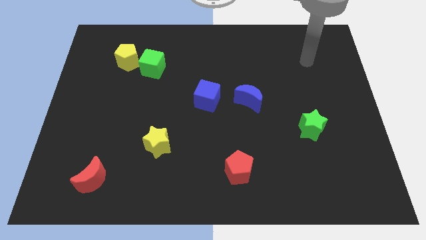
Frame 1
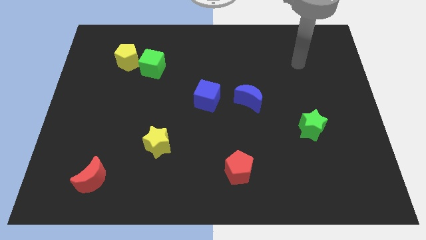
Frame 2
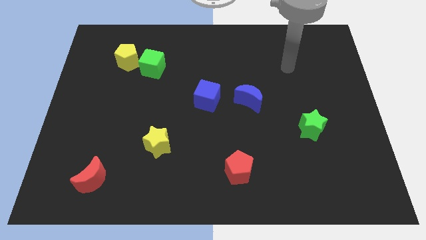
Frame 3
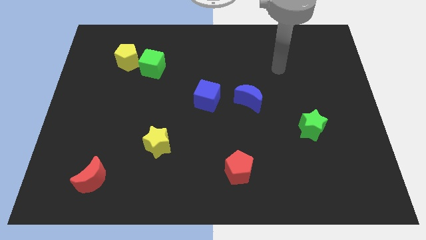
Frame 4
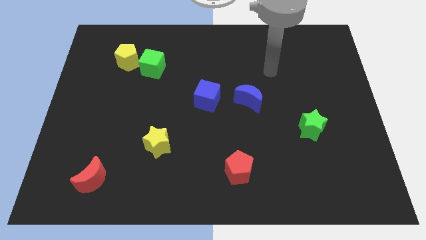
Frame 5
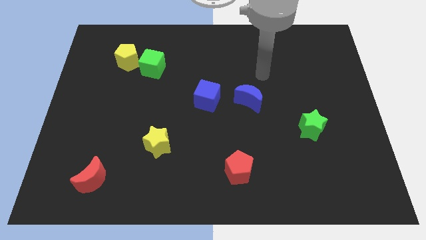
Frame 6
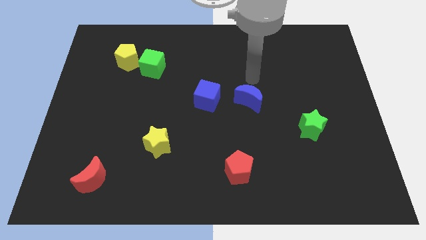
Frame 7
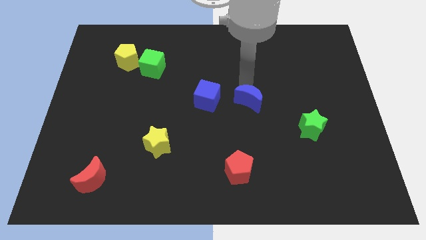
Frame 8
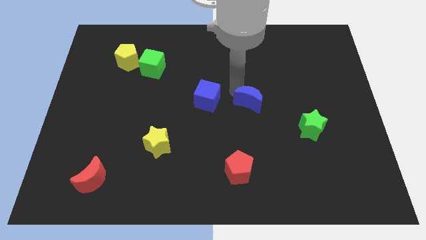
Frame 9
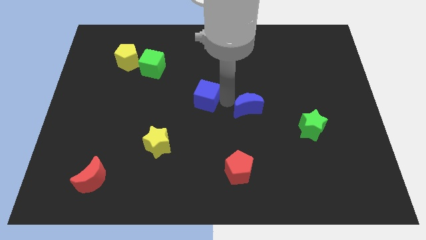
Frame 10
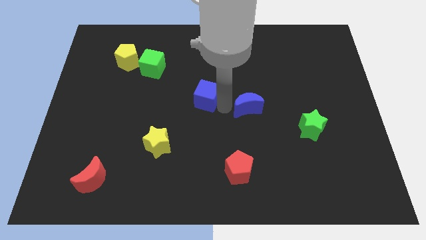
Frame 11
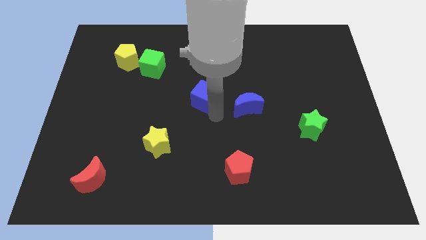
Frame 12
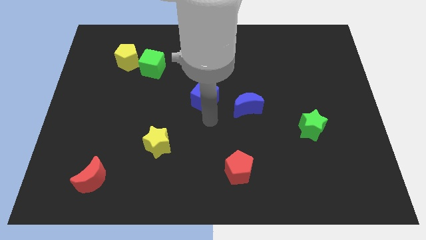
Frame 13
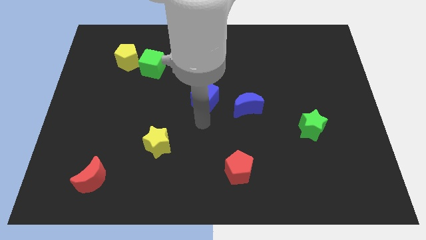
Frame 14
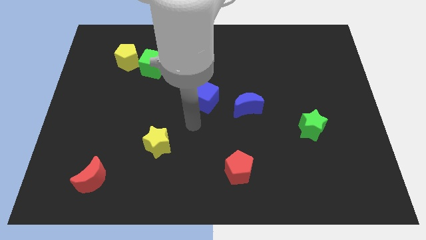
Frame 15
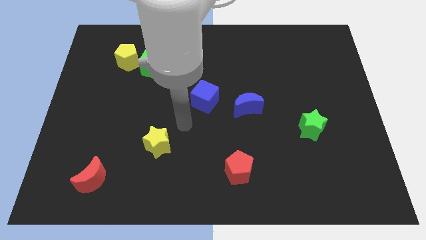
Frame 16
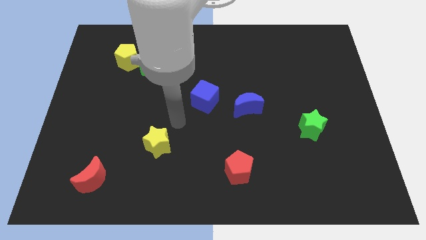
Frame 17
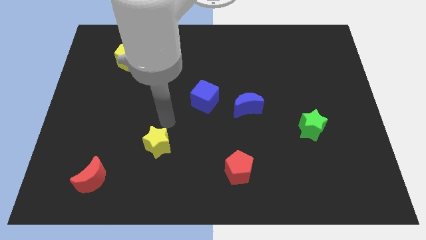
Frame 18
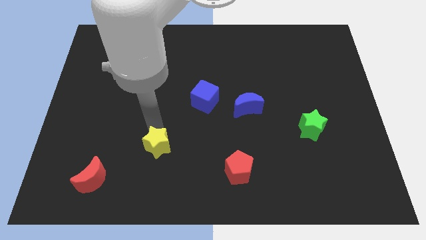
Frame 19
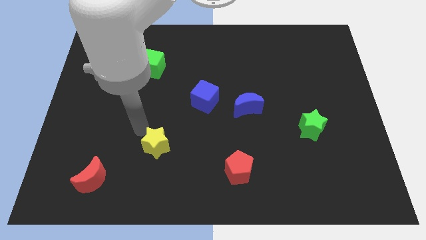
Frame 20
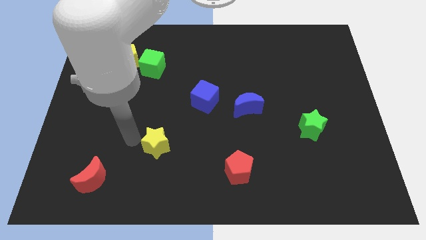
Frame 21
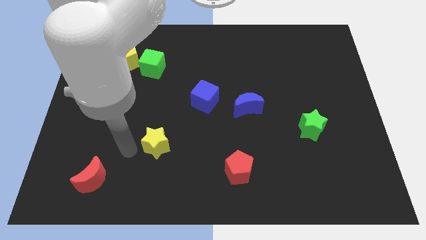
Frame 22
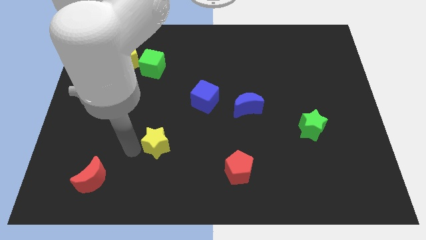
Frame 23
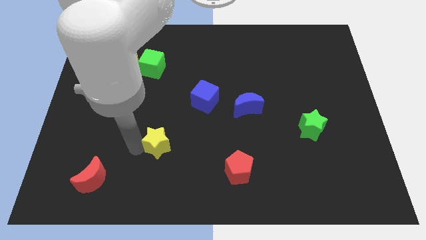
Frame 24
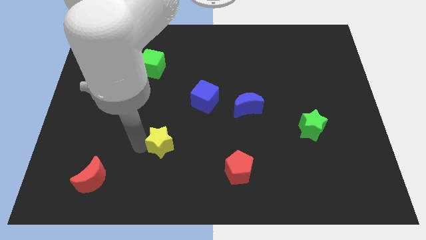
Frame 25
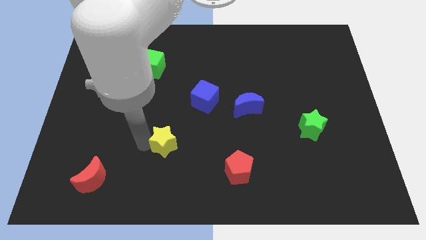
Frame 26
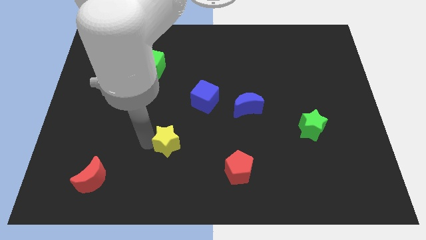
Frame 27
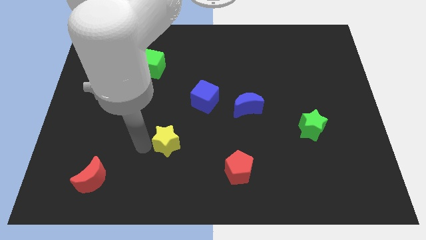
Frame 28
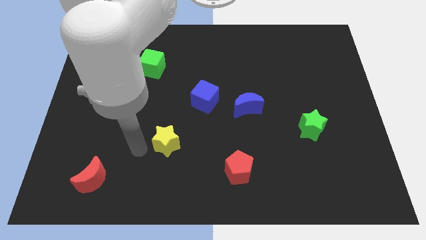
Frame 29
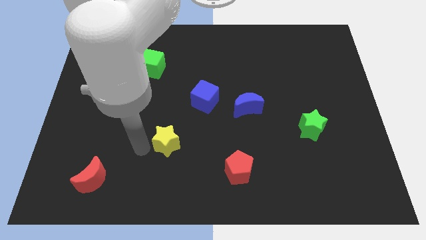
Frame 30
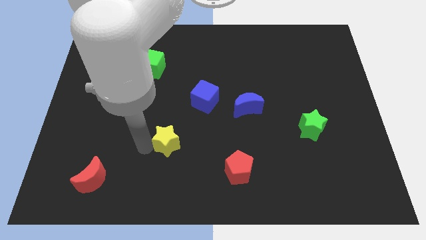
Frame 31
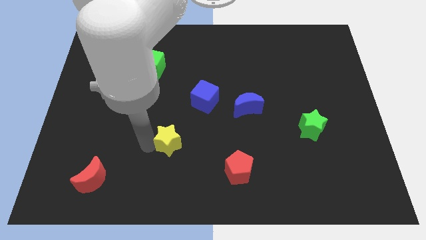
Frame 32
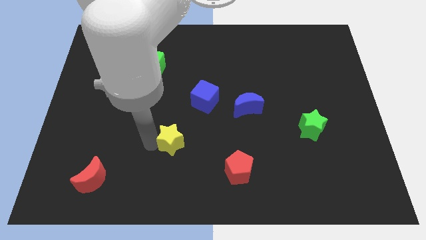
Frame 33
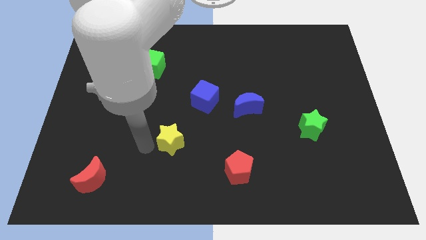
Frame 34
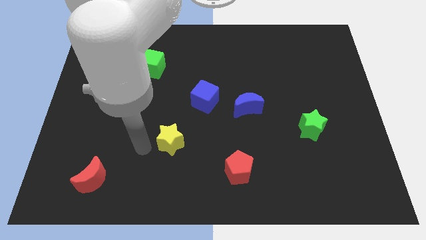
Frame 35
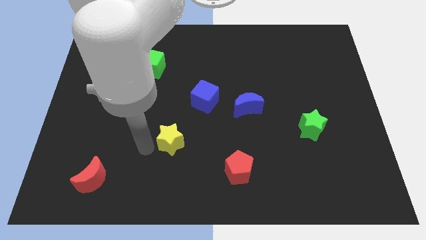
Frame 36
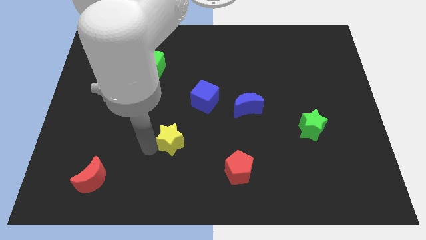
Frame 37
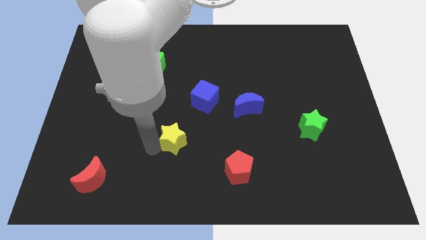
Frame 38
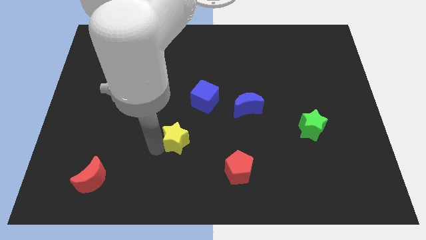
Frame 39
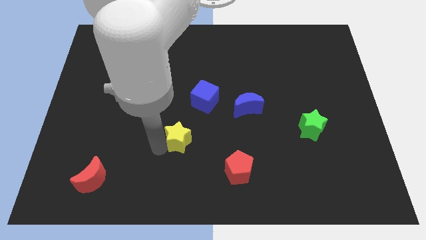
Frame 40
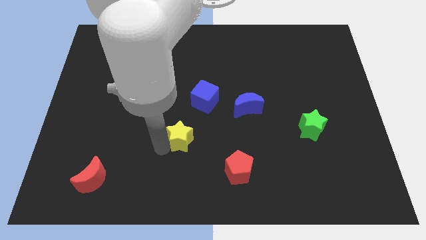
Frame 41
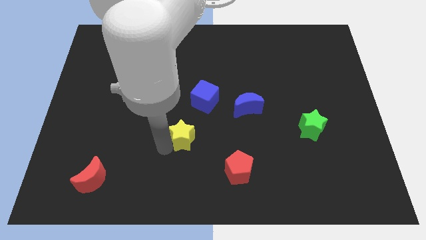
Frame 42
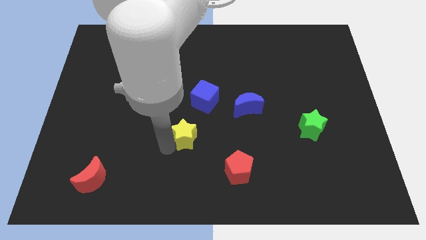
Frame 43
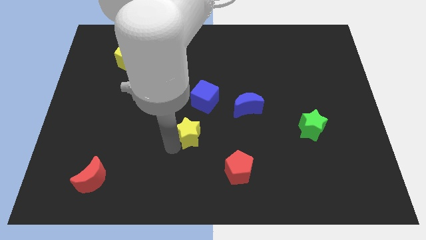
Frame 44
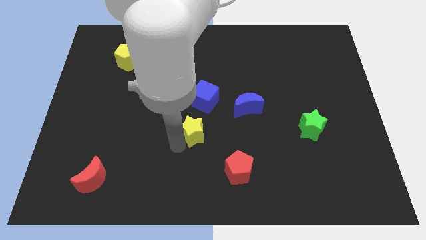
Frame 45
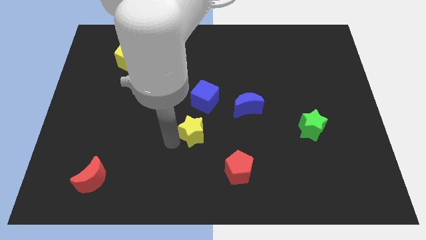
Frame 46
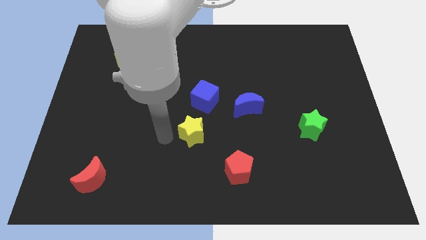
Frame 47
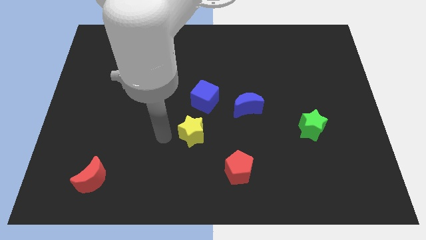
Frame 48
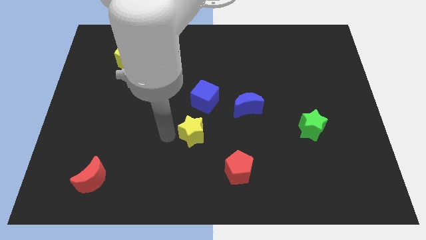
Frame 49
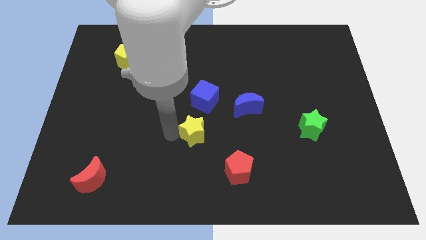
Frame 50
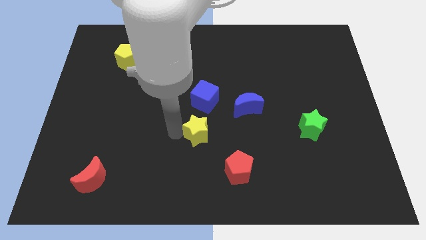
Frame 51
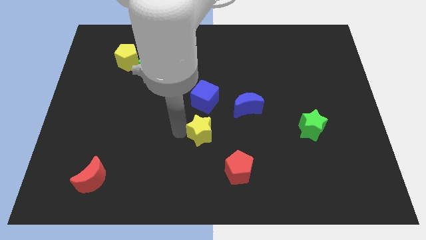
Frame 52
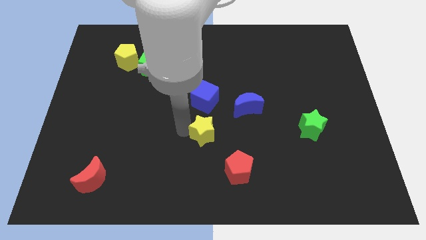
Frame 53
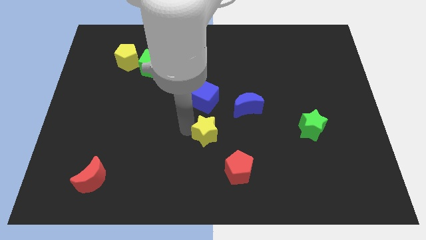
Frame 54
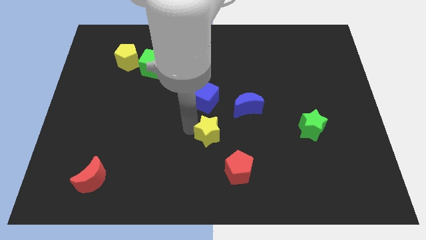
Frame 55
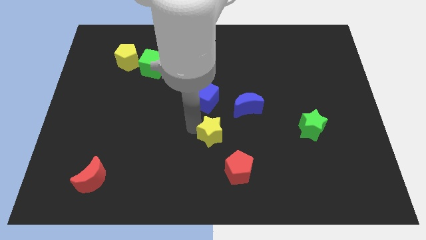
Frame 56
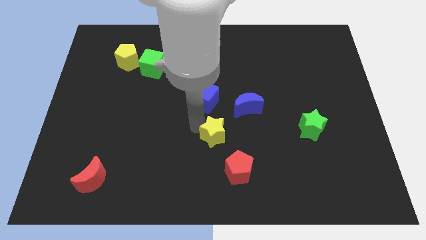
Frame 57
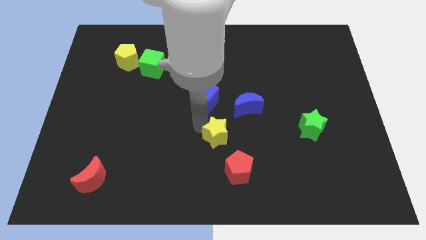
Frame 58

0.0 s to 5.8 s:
slide the yellow star to the top of the red pentagon
